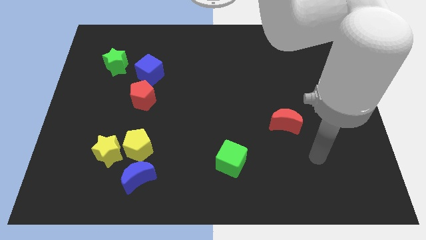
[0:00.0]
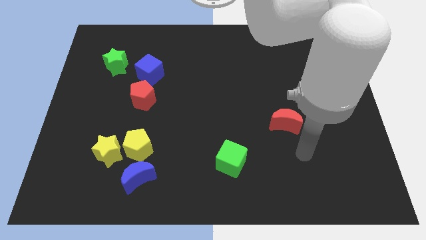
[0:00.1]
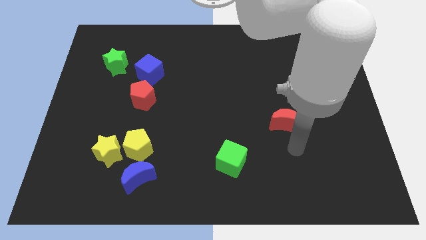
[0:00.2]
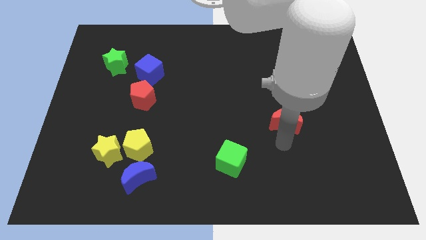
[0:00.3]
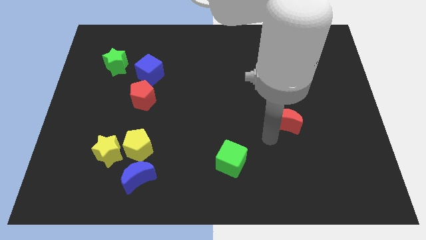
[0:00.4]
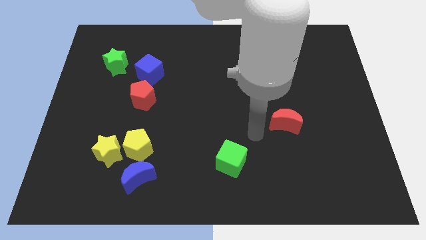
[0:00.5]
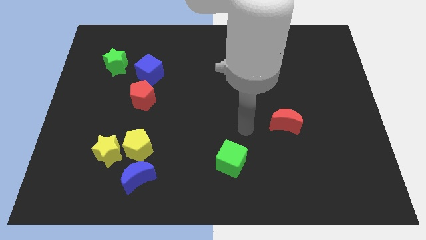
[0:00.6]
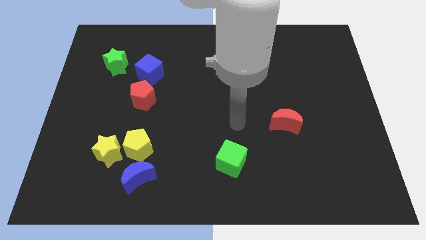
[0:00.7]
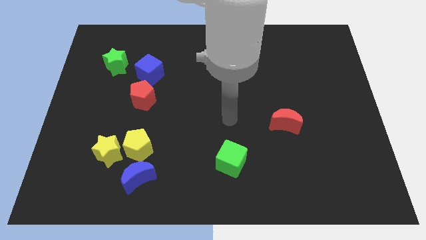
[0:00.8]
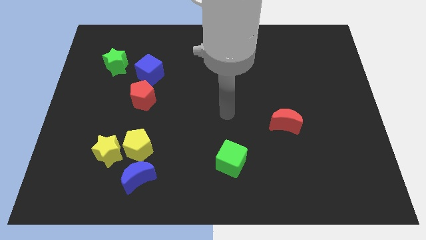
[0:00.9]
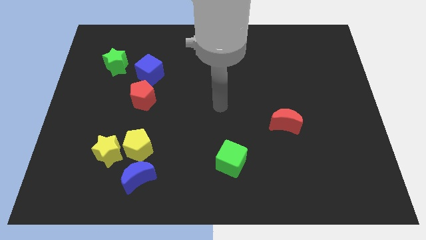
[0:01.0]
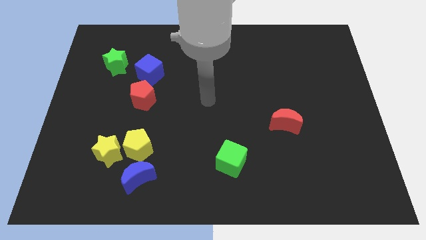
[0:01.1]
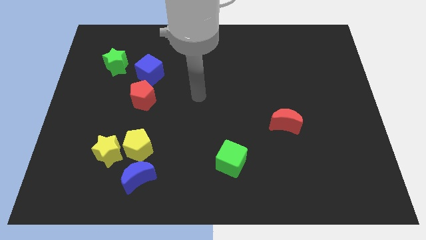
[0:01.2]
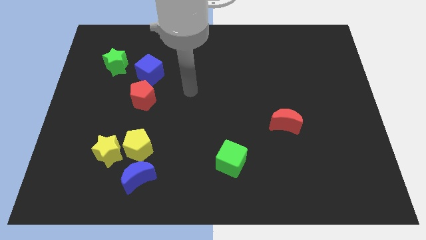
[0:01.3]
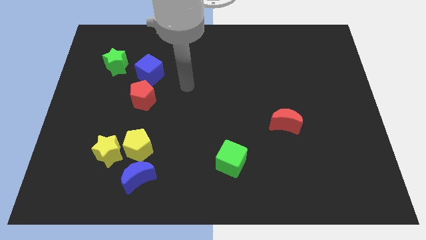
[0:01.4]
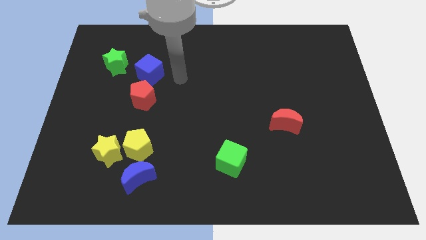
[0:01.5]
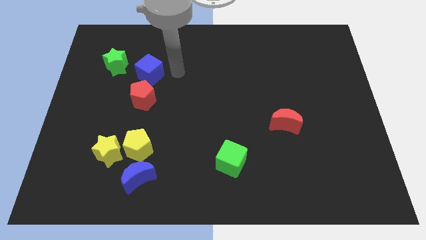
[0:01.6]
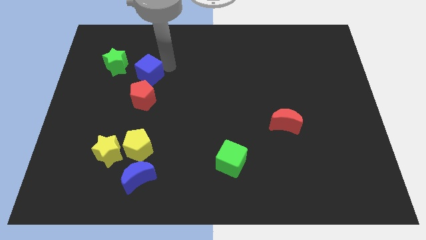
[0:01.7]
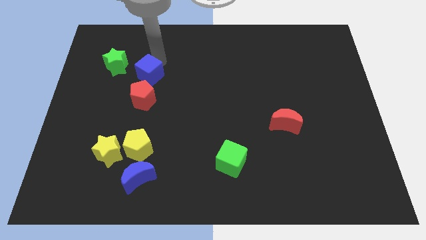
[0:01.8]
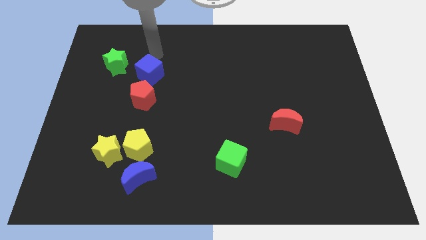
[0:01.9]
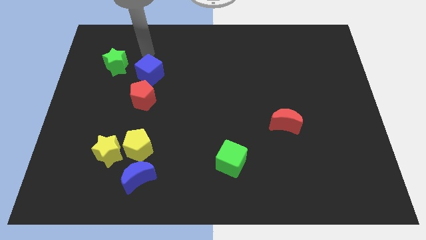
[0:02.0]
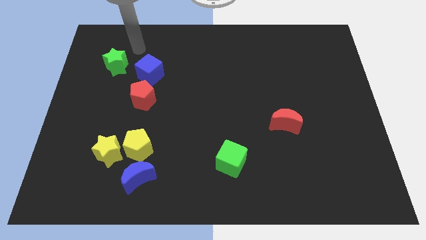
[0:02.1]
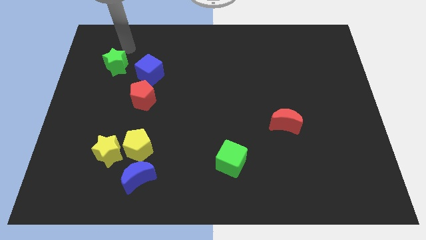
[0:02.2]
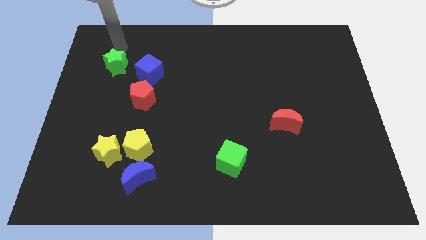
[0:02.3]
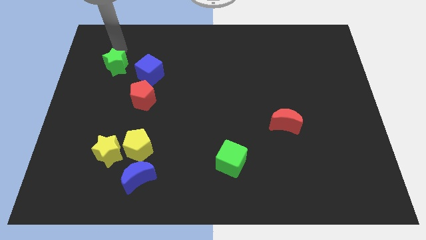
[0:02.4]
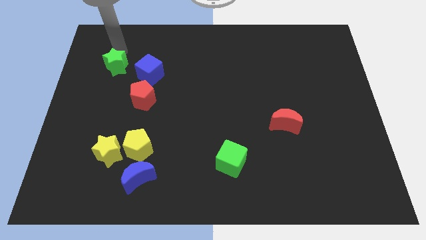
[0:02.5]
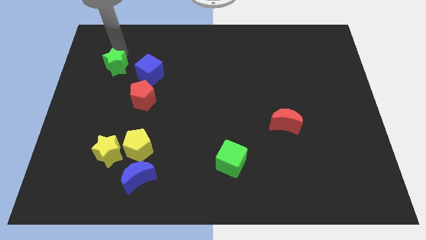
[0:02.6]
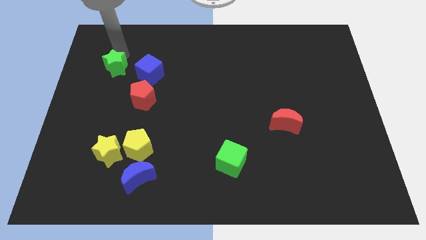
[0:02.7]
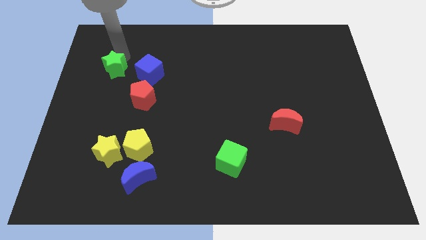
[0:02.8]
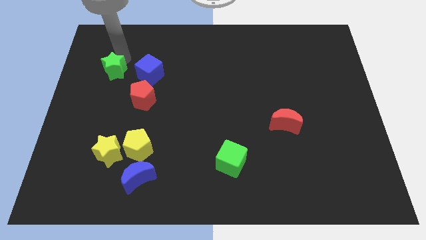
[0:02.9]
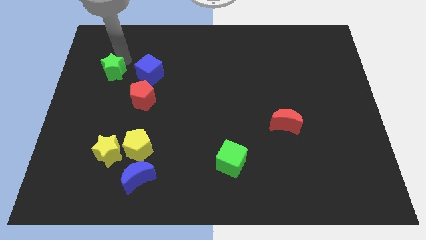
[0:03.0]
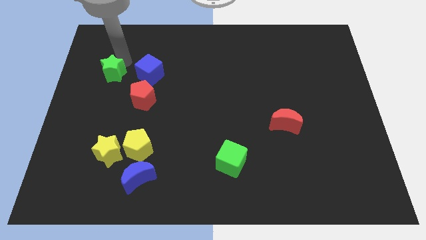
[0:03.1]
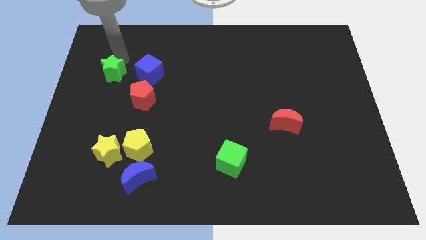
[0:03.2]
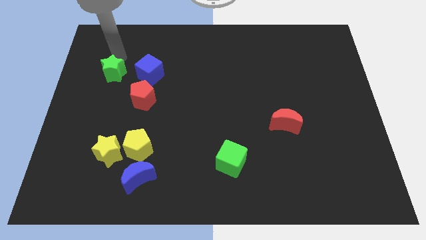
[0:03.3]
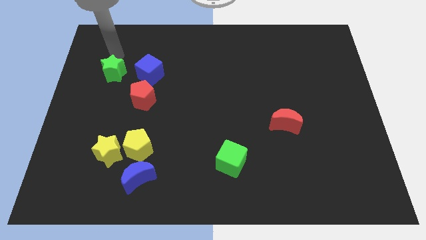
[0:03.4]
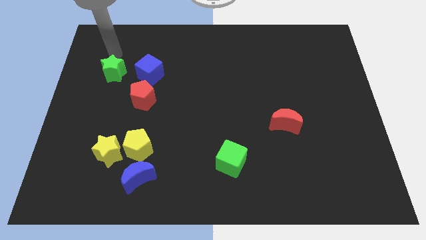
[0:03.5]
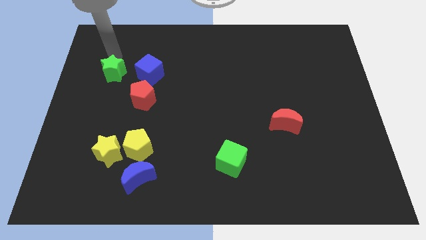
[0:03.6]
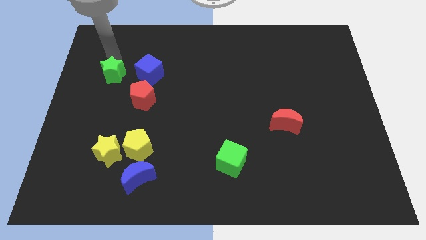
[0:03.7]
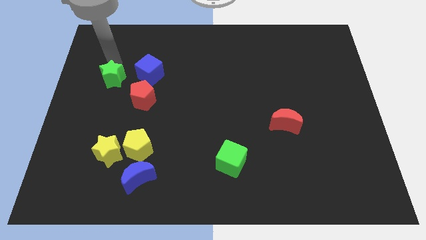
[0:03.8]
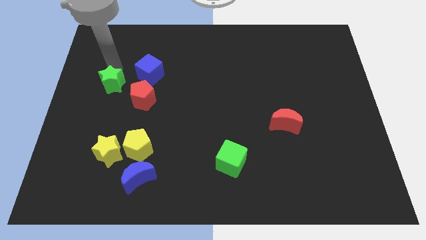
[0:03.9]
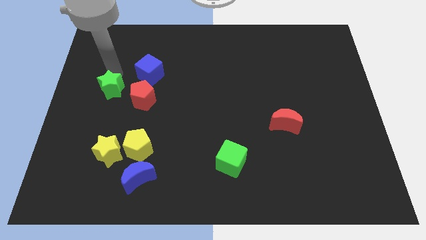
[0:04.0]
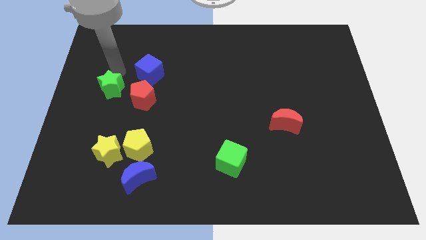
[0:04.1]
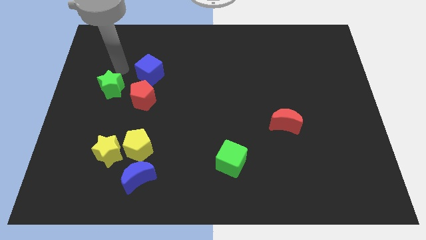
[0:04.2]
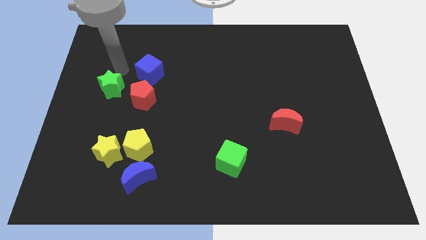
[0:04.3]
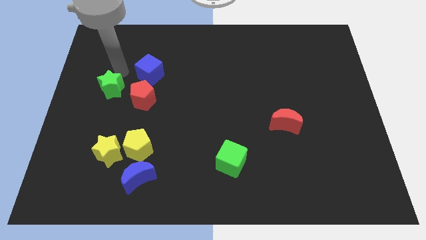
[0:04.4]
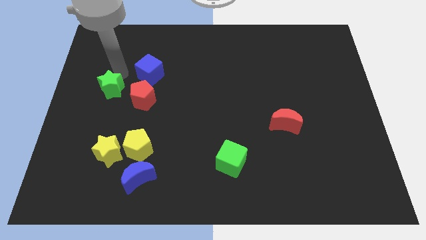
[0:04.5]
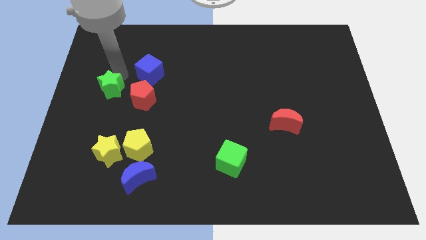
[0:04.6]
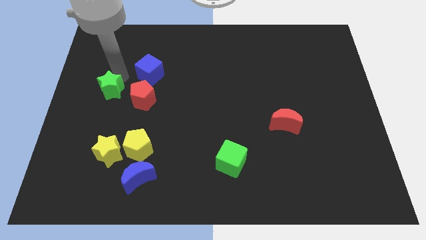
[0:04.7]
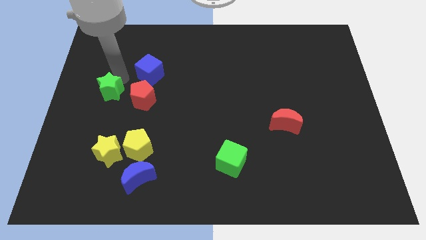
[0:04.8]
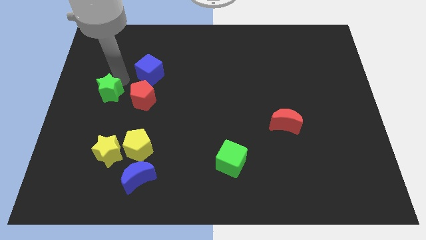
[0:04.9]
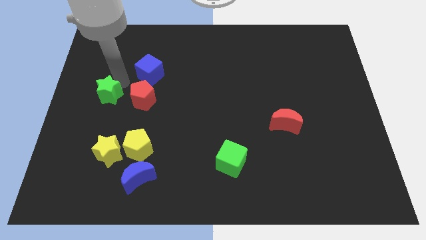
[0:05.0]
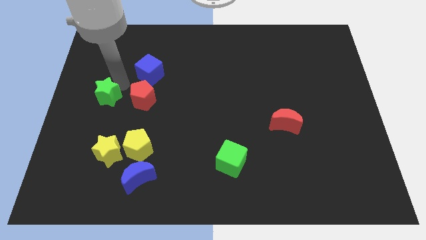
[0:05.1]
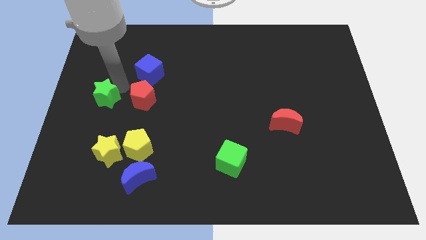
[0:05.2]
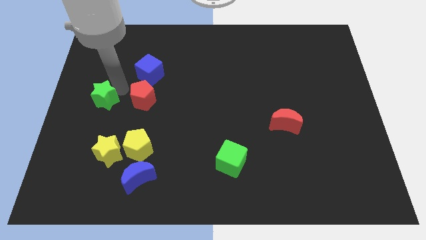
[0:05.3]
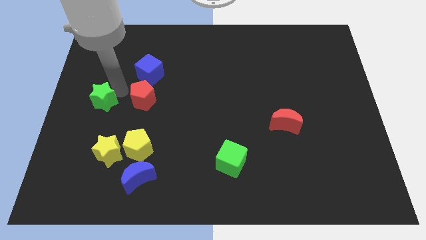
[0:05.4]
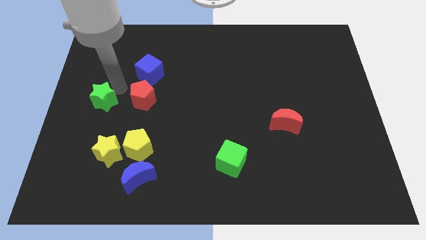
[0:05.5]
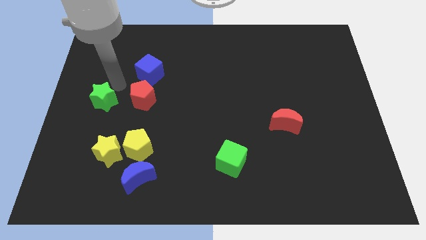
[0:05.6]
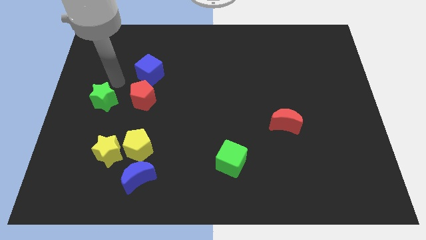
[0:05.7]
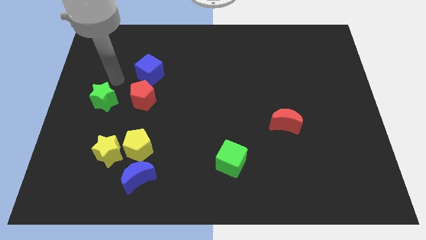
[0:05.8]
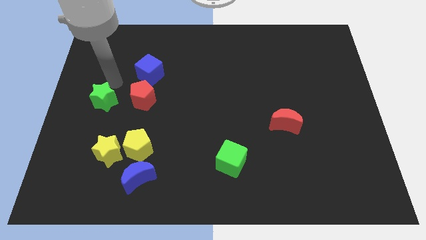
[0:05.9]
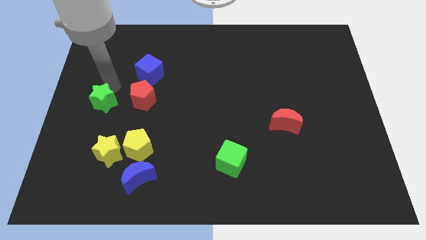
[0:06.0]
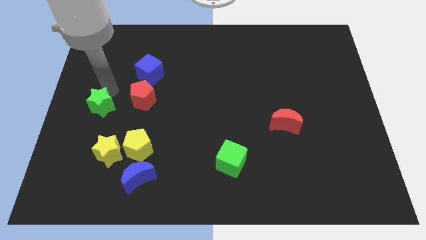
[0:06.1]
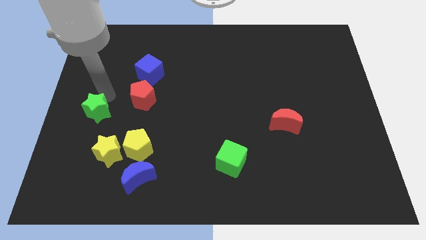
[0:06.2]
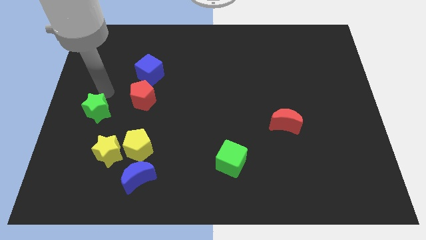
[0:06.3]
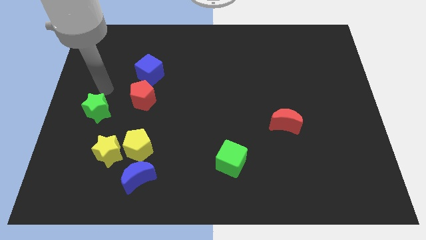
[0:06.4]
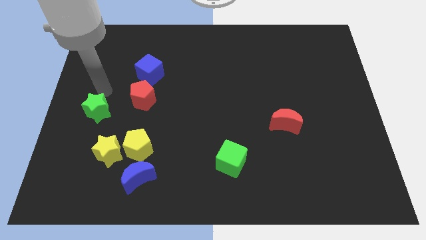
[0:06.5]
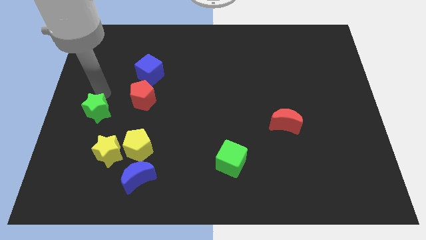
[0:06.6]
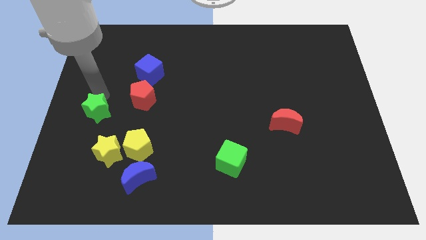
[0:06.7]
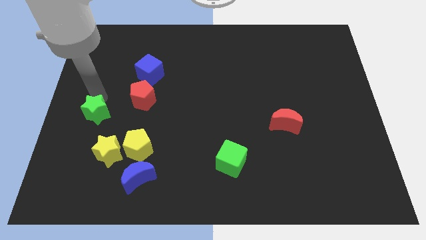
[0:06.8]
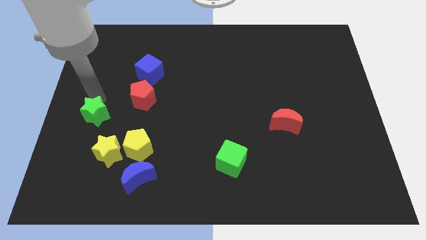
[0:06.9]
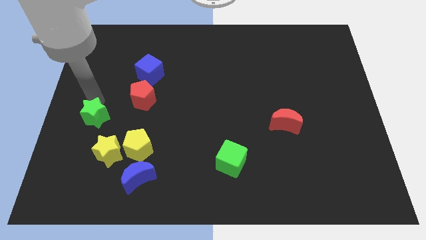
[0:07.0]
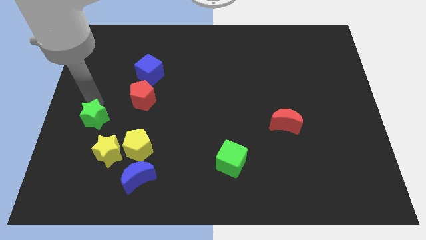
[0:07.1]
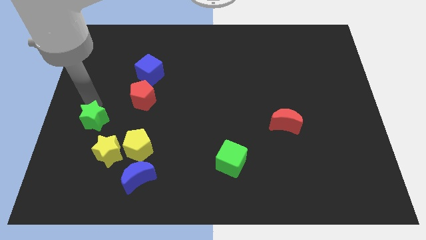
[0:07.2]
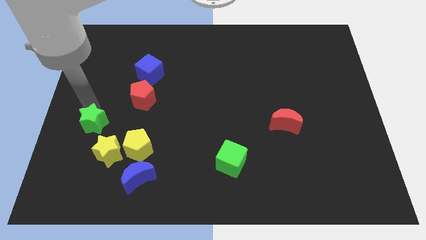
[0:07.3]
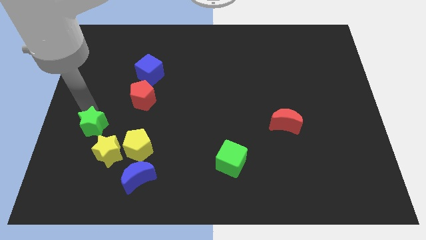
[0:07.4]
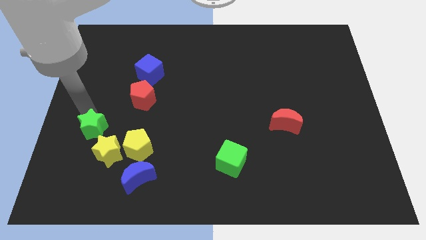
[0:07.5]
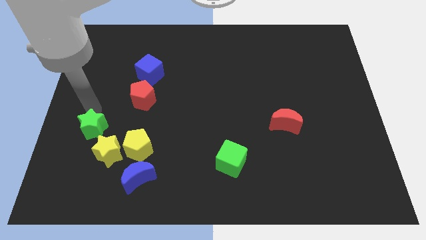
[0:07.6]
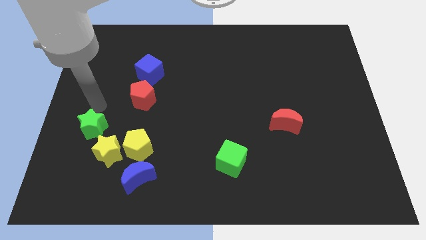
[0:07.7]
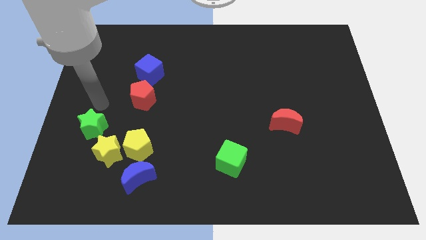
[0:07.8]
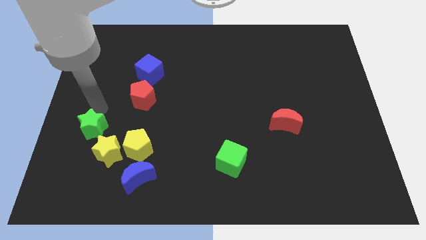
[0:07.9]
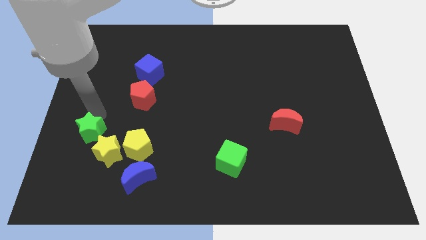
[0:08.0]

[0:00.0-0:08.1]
push the green star down
